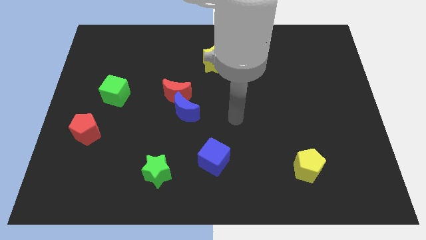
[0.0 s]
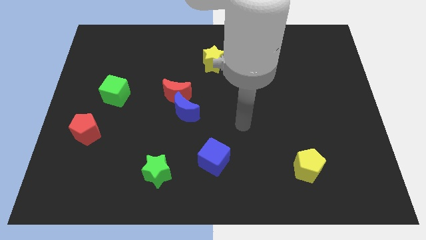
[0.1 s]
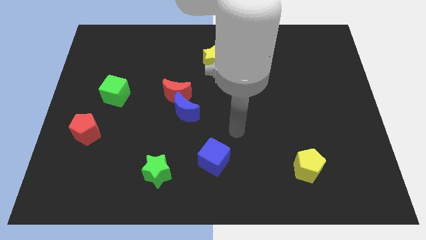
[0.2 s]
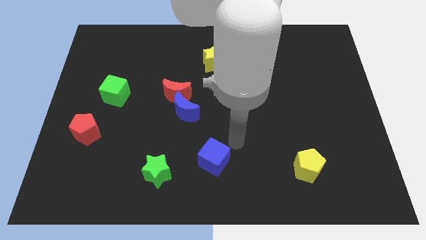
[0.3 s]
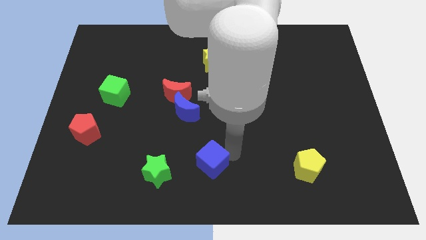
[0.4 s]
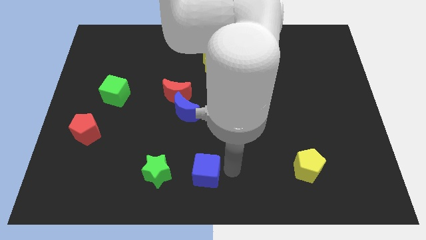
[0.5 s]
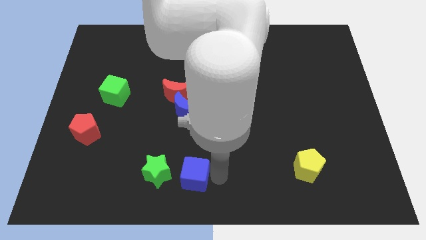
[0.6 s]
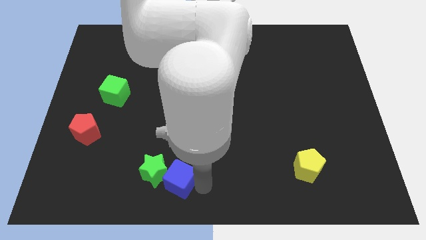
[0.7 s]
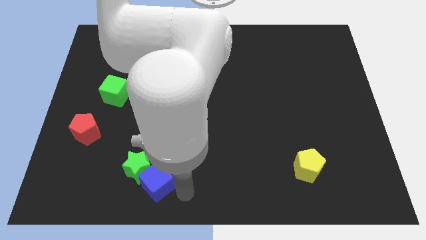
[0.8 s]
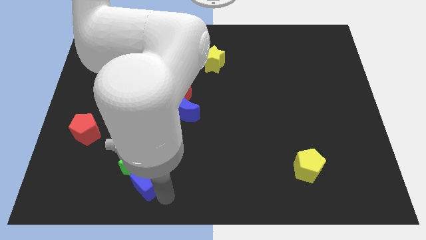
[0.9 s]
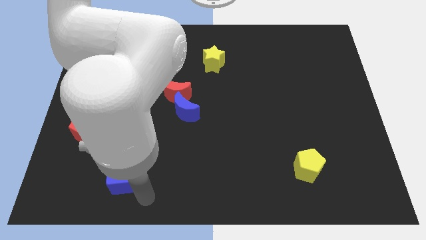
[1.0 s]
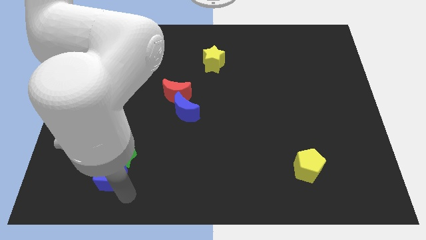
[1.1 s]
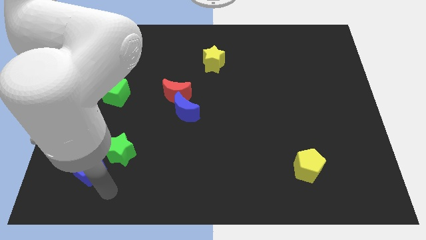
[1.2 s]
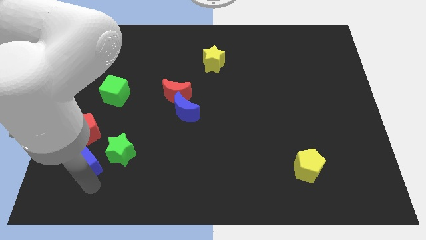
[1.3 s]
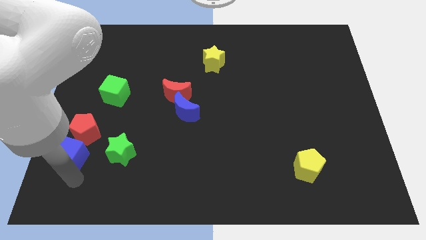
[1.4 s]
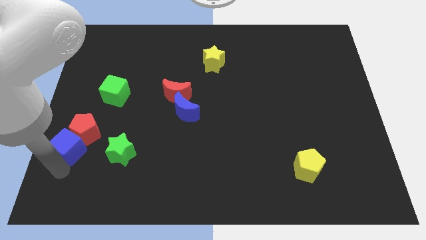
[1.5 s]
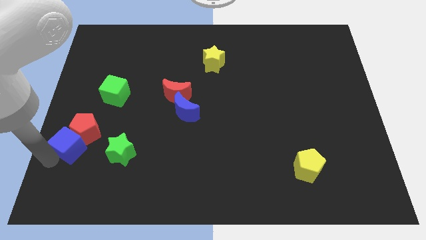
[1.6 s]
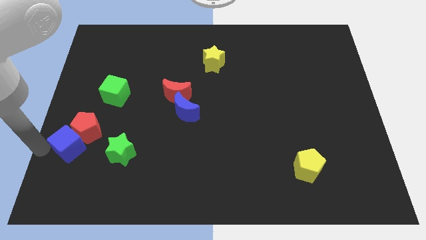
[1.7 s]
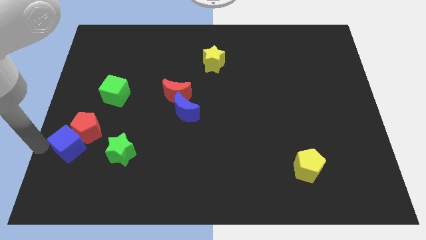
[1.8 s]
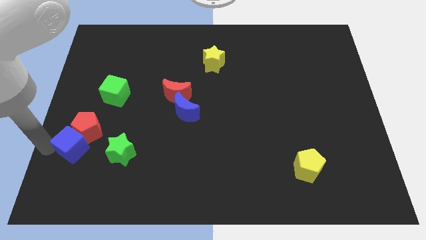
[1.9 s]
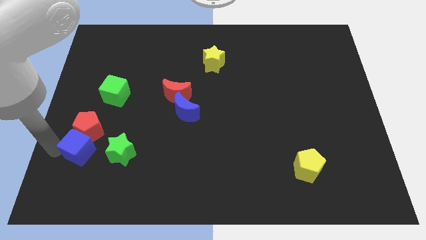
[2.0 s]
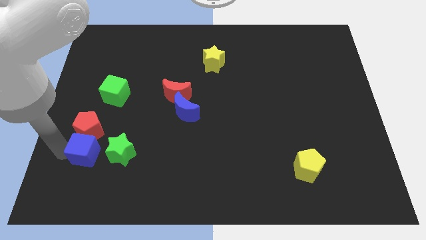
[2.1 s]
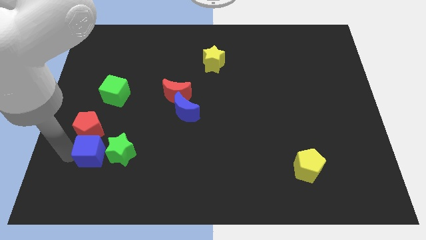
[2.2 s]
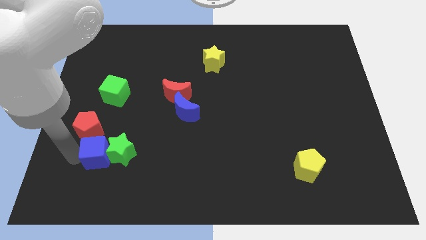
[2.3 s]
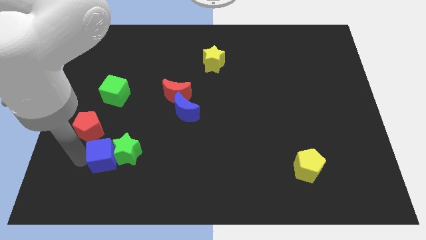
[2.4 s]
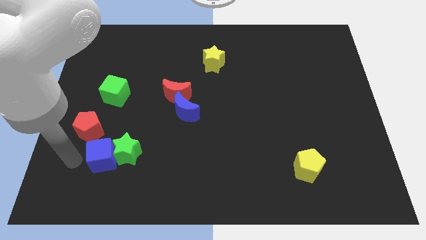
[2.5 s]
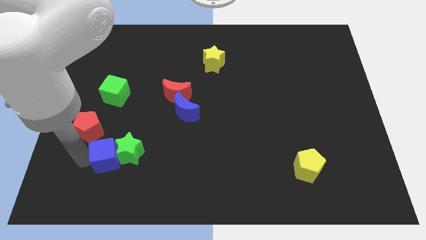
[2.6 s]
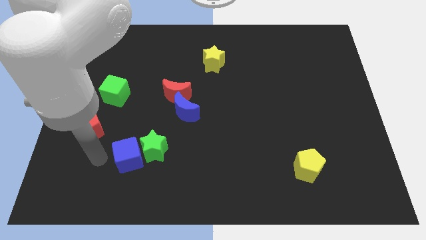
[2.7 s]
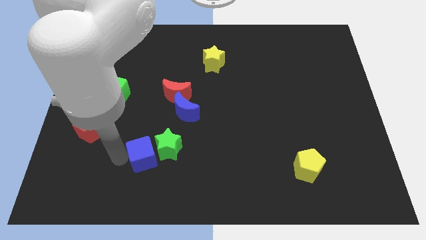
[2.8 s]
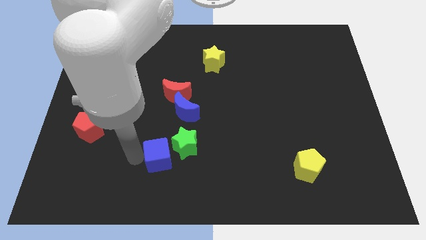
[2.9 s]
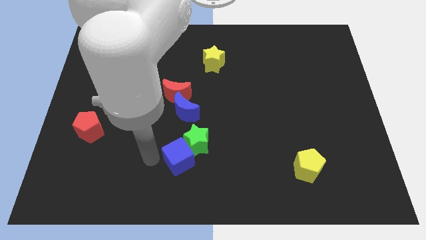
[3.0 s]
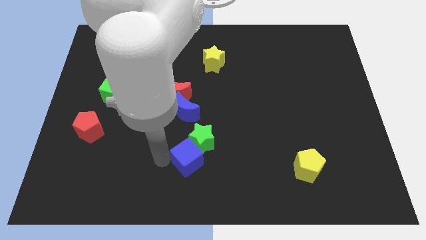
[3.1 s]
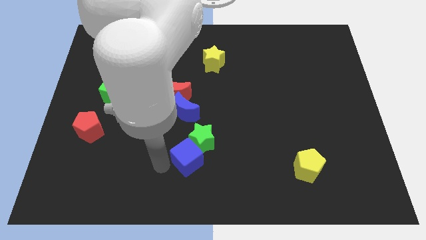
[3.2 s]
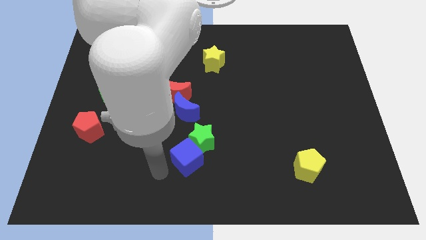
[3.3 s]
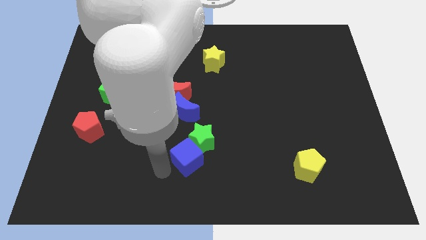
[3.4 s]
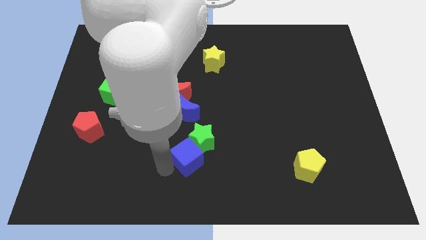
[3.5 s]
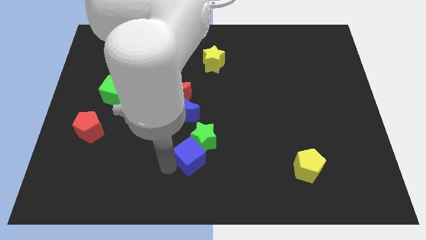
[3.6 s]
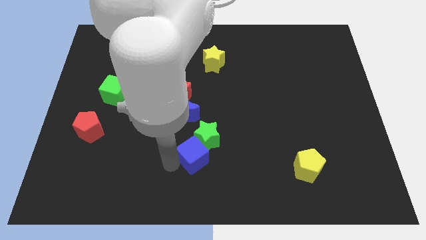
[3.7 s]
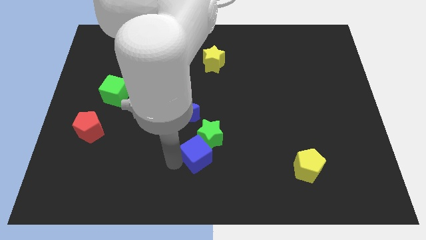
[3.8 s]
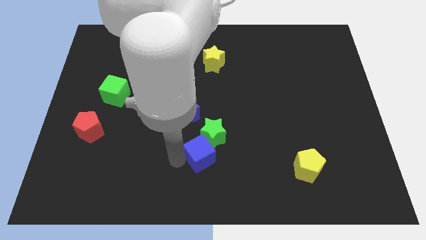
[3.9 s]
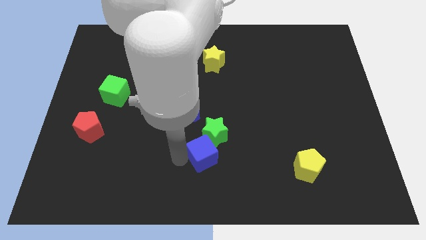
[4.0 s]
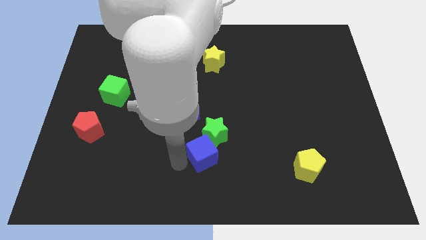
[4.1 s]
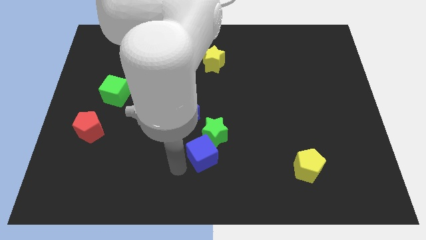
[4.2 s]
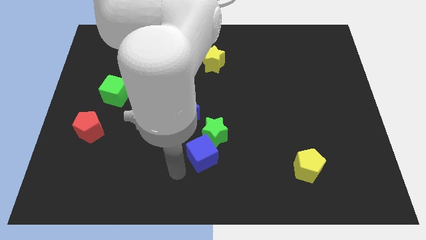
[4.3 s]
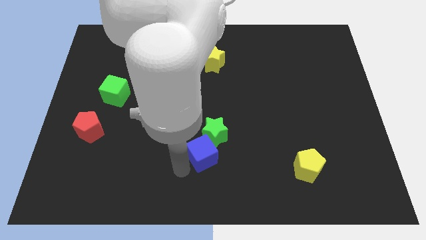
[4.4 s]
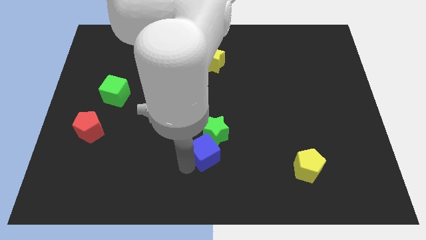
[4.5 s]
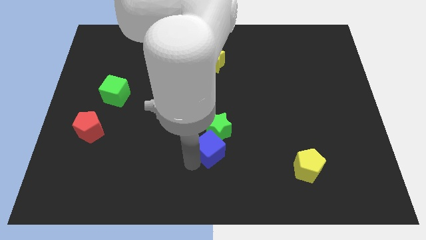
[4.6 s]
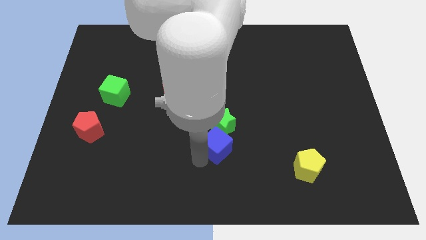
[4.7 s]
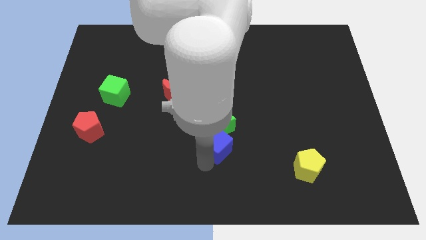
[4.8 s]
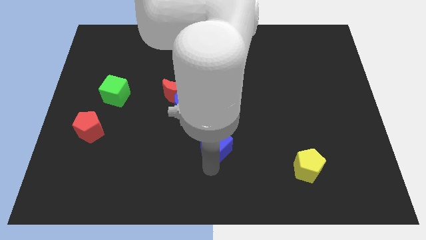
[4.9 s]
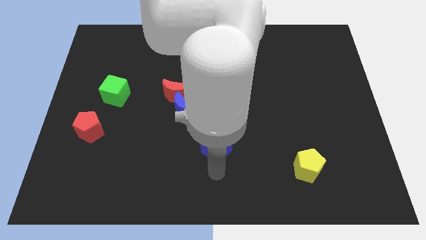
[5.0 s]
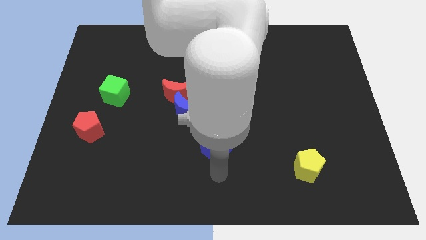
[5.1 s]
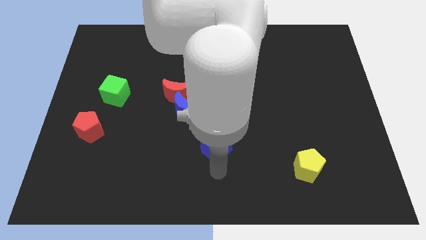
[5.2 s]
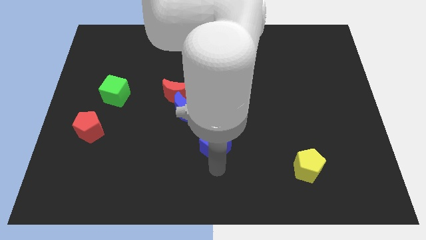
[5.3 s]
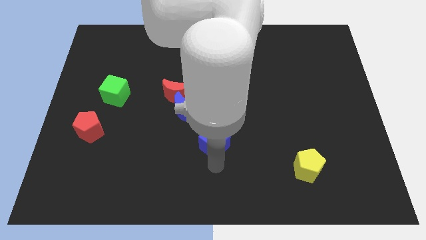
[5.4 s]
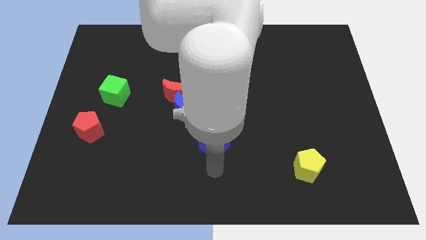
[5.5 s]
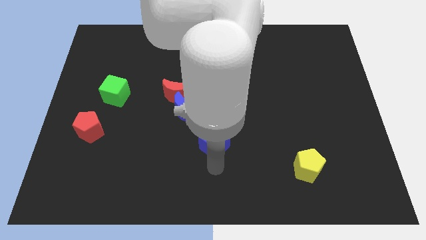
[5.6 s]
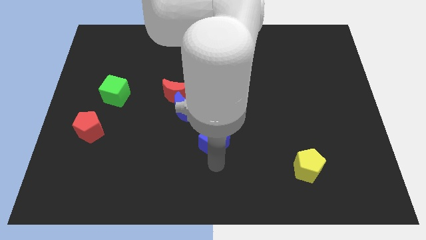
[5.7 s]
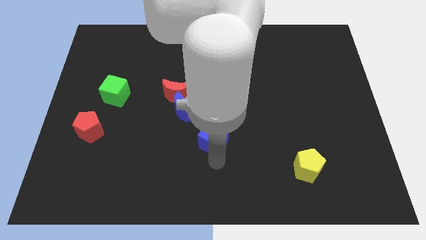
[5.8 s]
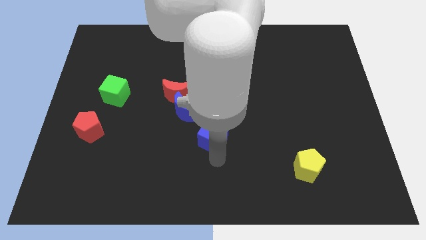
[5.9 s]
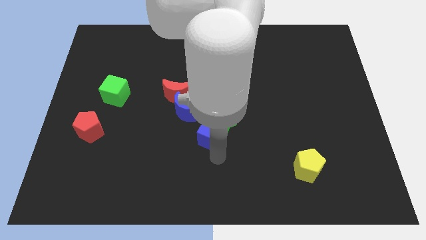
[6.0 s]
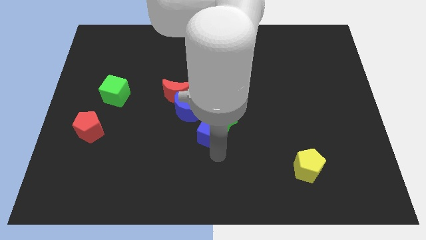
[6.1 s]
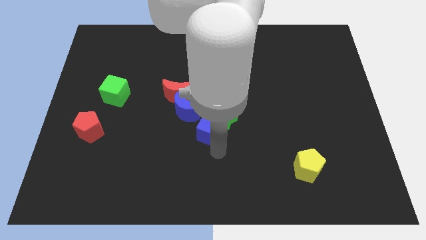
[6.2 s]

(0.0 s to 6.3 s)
slightly move the blue cube upwards

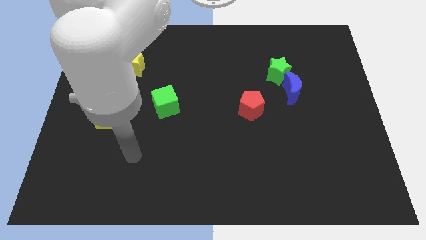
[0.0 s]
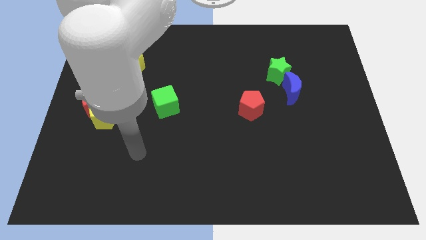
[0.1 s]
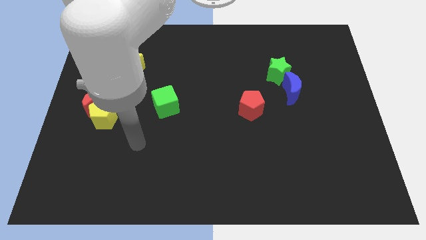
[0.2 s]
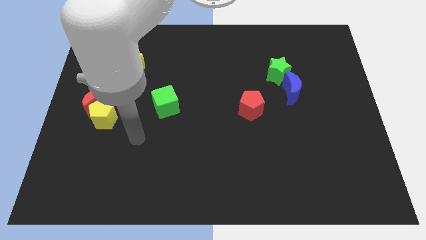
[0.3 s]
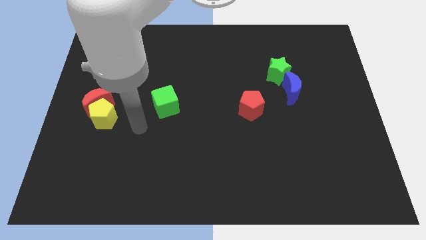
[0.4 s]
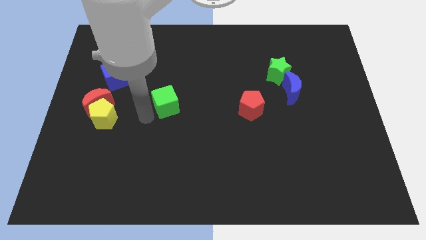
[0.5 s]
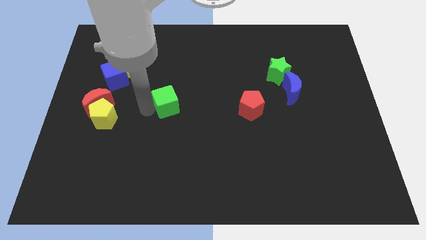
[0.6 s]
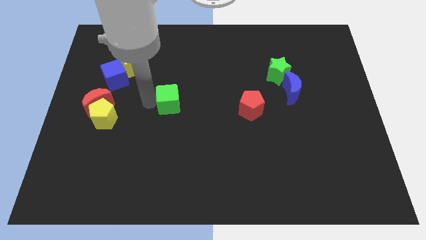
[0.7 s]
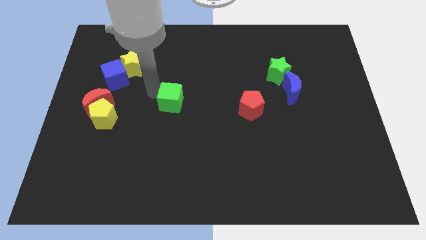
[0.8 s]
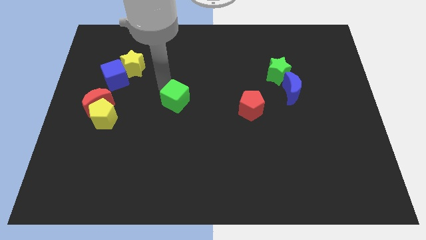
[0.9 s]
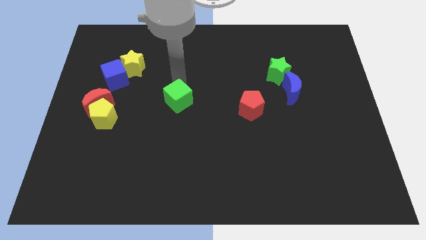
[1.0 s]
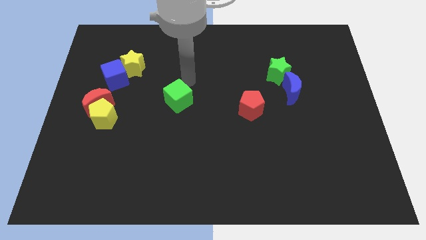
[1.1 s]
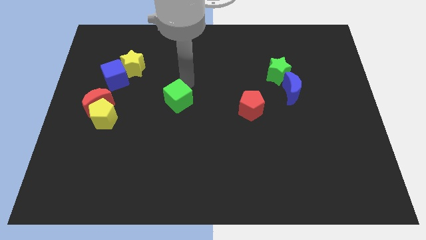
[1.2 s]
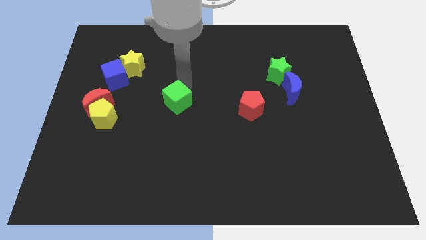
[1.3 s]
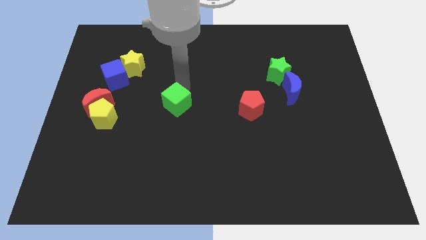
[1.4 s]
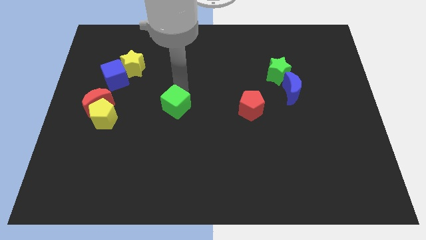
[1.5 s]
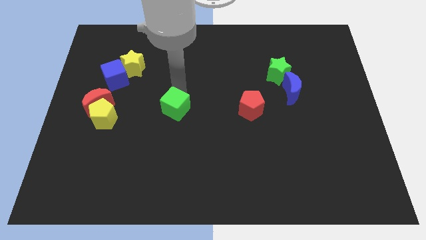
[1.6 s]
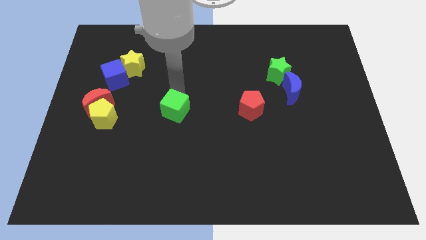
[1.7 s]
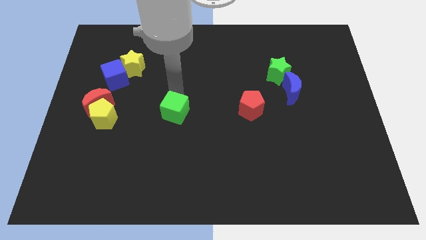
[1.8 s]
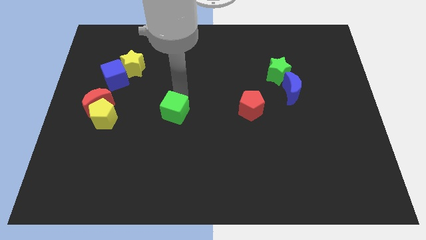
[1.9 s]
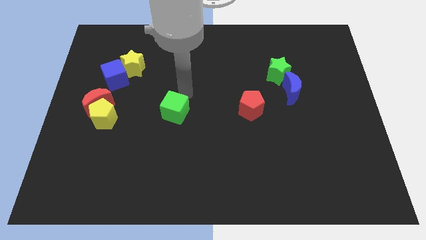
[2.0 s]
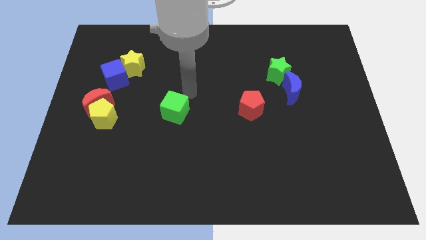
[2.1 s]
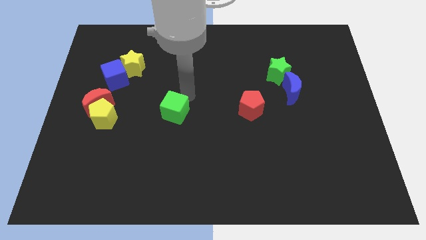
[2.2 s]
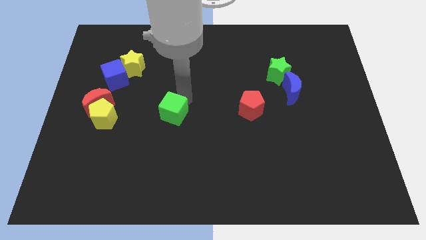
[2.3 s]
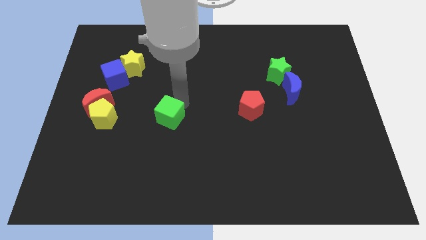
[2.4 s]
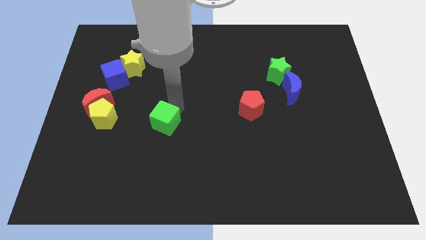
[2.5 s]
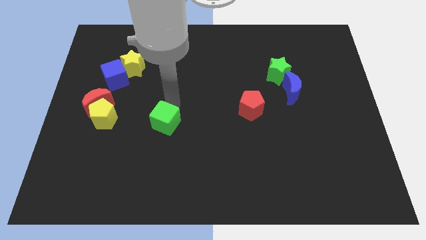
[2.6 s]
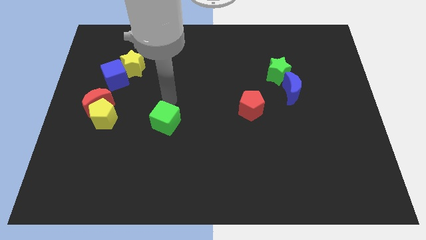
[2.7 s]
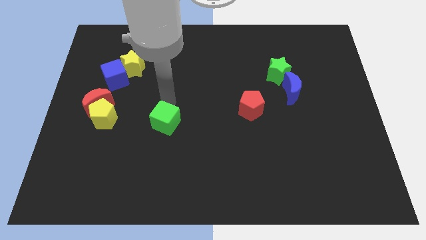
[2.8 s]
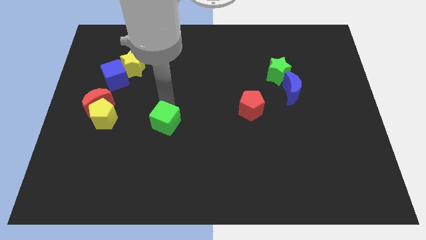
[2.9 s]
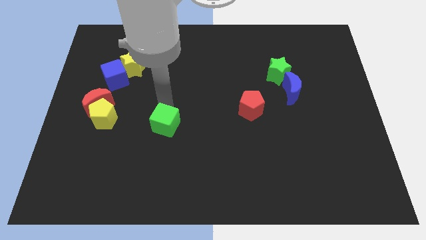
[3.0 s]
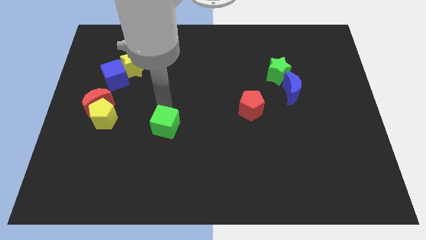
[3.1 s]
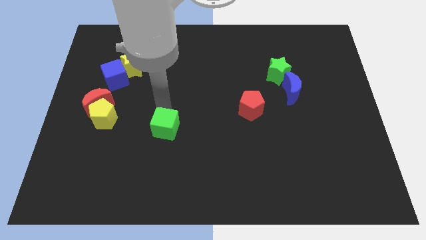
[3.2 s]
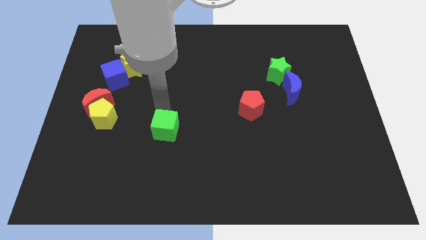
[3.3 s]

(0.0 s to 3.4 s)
slightly push the green cube downwards
